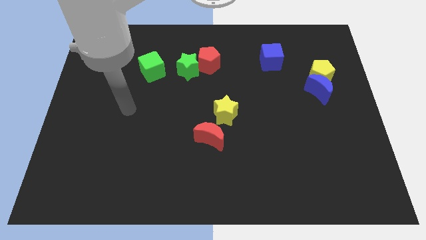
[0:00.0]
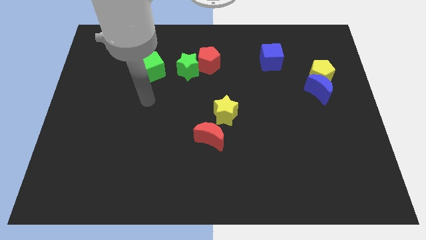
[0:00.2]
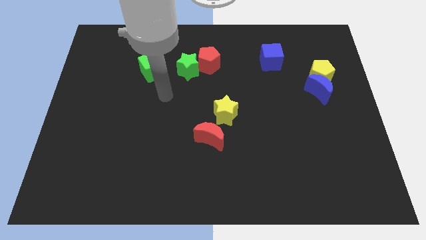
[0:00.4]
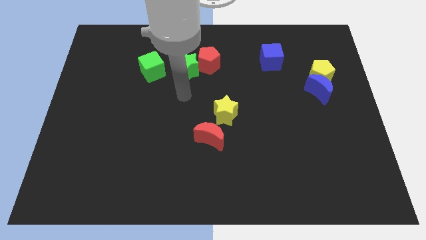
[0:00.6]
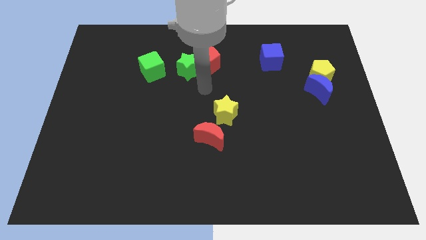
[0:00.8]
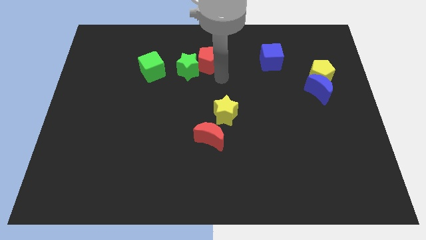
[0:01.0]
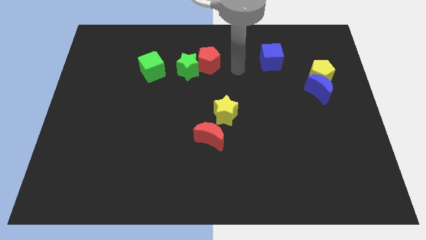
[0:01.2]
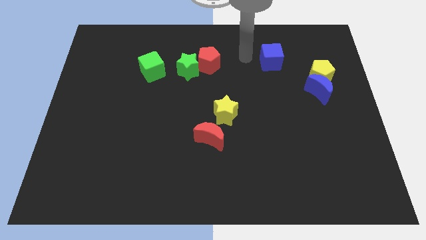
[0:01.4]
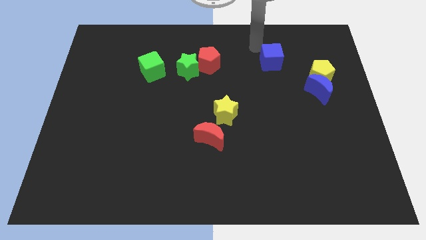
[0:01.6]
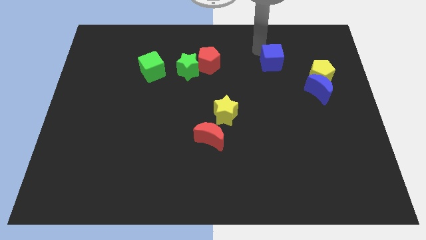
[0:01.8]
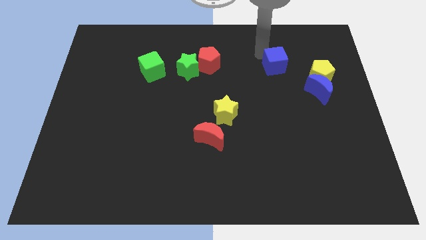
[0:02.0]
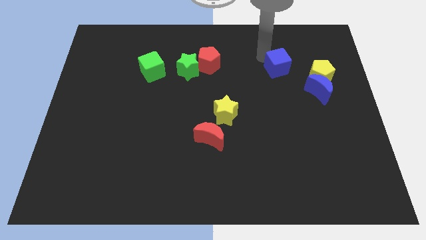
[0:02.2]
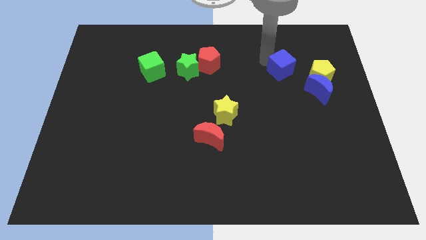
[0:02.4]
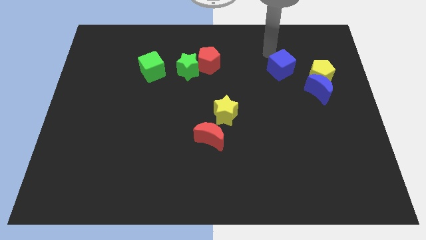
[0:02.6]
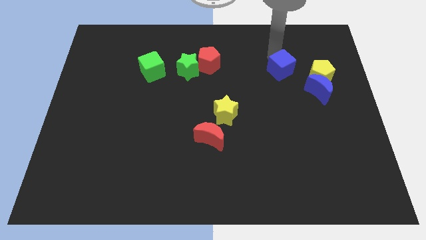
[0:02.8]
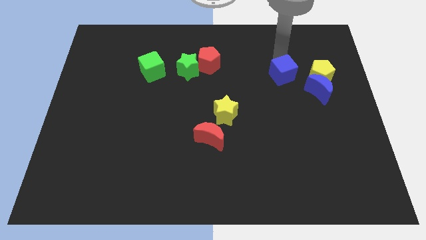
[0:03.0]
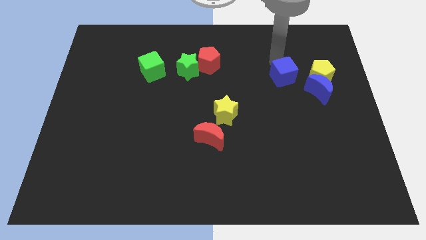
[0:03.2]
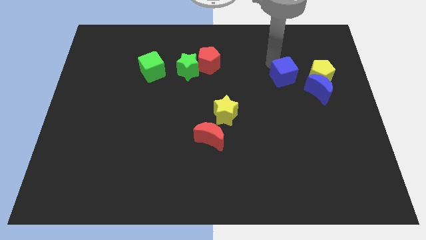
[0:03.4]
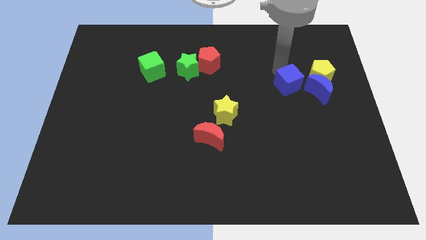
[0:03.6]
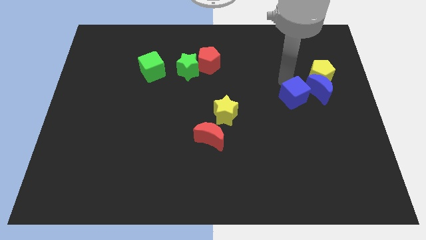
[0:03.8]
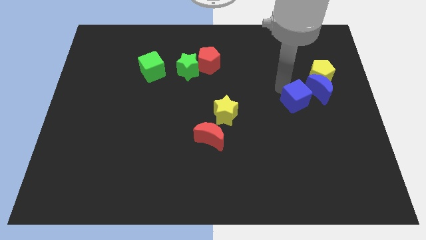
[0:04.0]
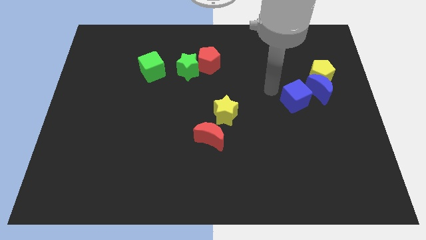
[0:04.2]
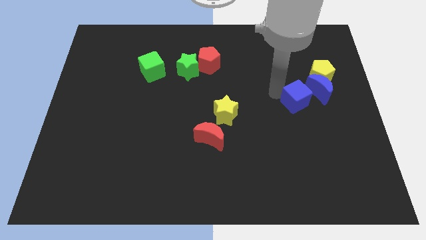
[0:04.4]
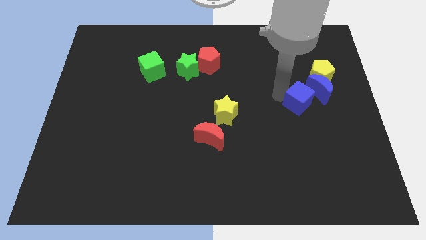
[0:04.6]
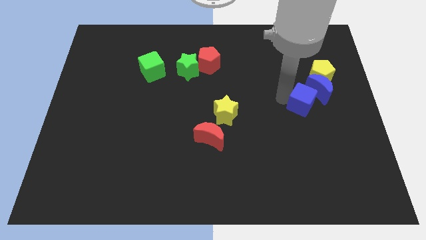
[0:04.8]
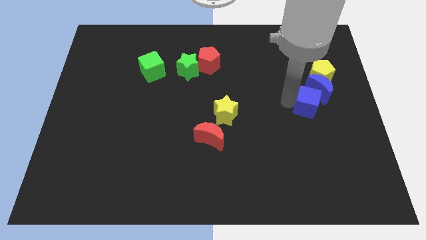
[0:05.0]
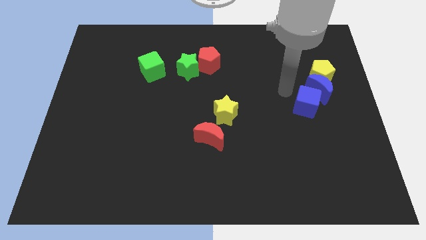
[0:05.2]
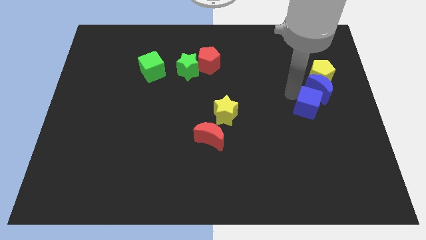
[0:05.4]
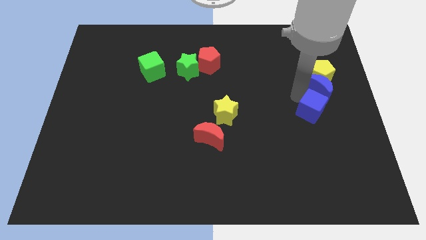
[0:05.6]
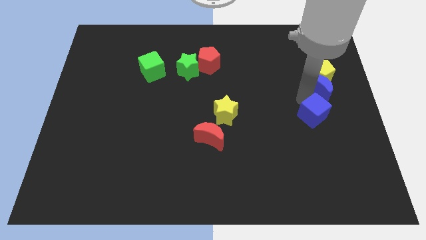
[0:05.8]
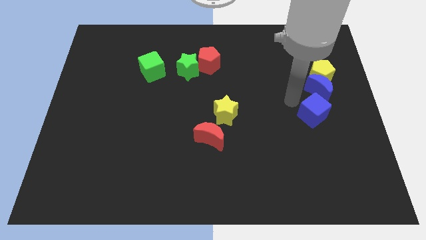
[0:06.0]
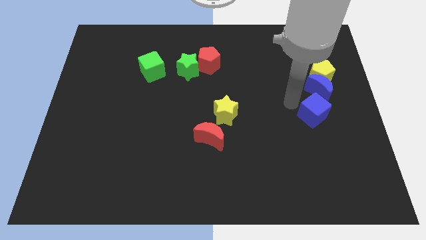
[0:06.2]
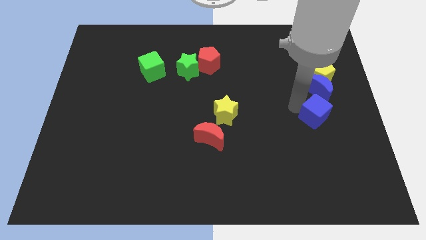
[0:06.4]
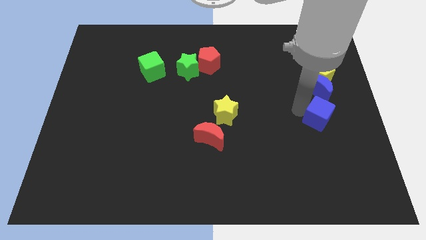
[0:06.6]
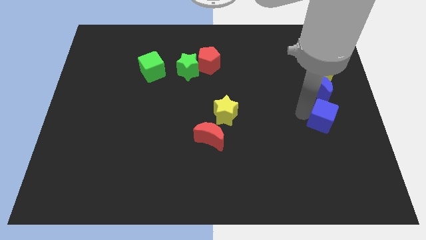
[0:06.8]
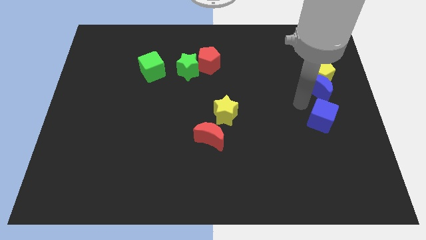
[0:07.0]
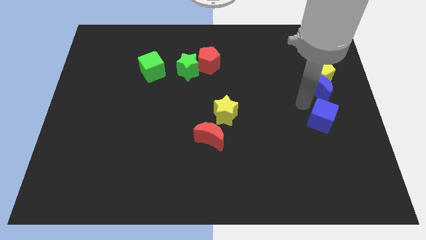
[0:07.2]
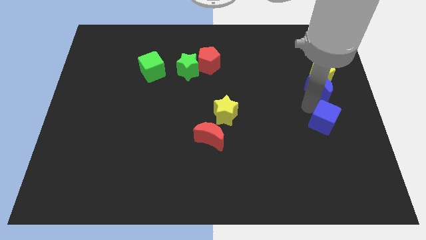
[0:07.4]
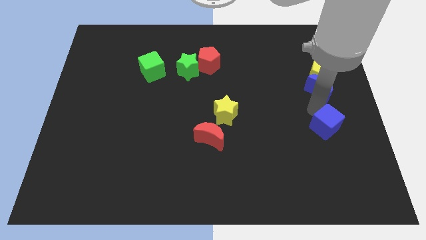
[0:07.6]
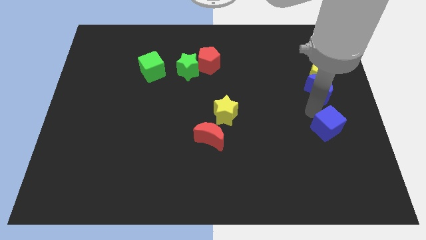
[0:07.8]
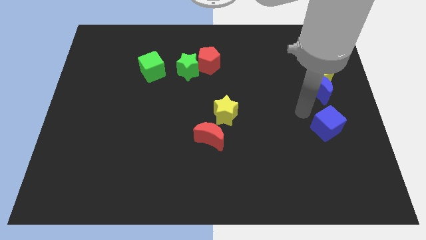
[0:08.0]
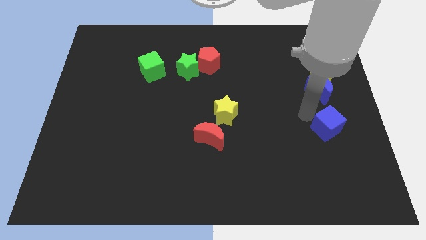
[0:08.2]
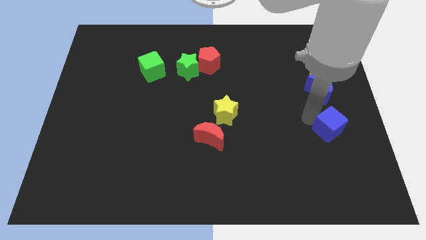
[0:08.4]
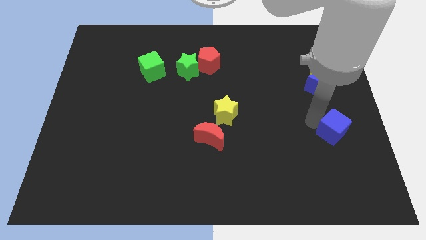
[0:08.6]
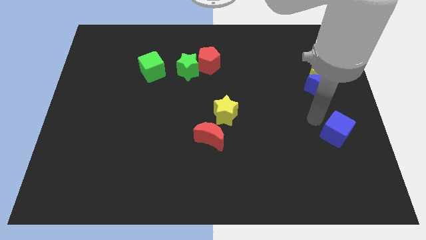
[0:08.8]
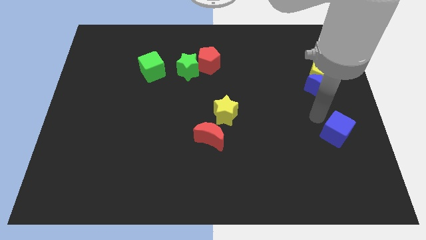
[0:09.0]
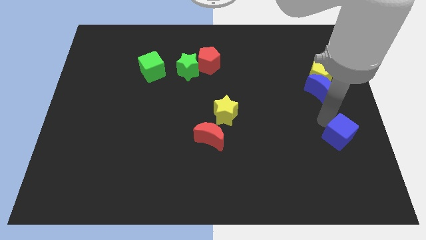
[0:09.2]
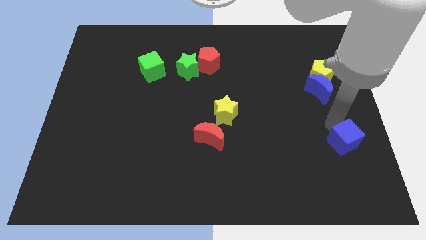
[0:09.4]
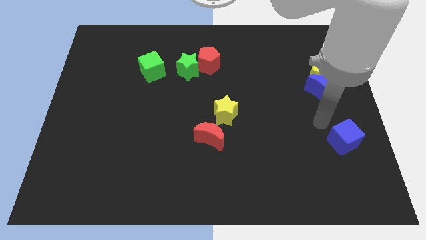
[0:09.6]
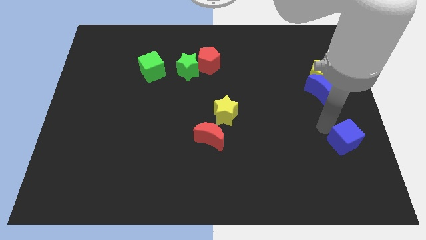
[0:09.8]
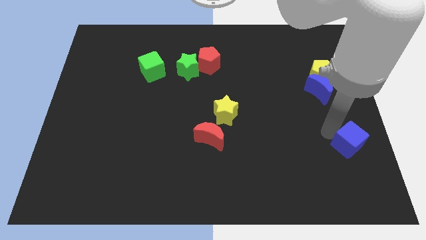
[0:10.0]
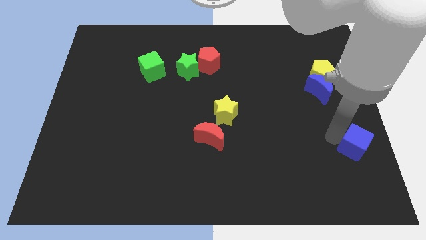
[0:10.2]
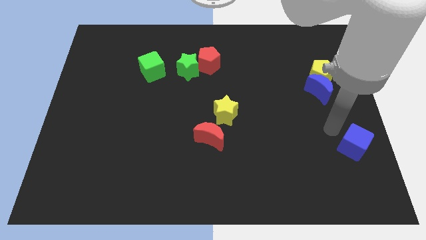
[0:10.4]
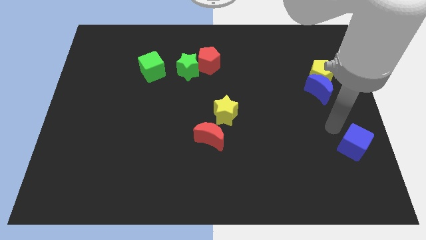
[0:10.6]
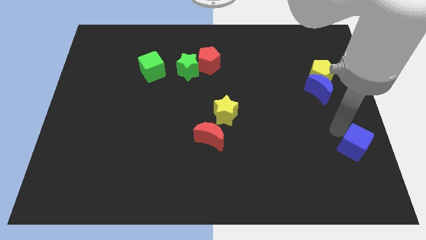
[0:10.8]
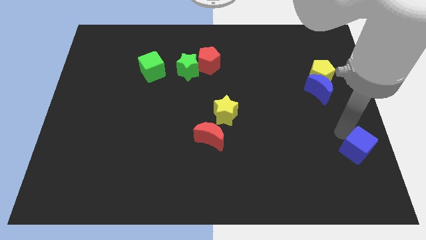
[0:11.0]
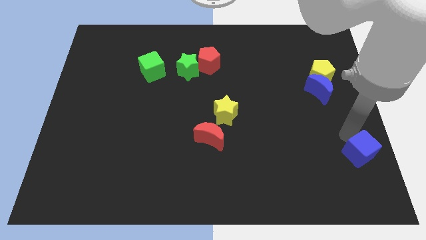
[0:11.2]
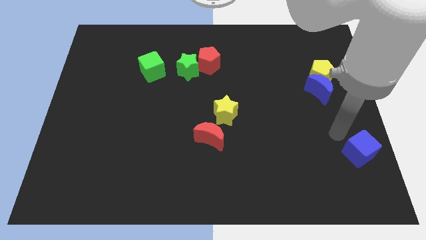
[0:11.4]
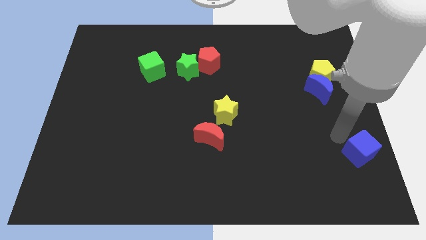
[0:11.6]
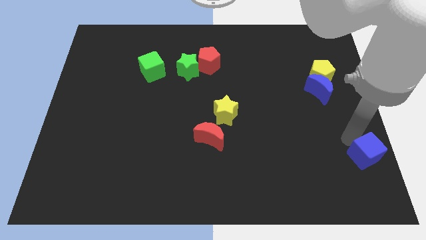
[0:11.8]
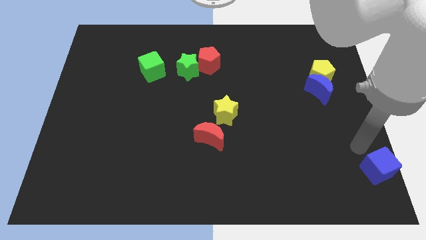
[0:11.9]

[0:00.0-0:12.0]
push the blue cube to the lower right corner
